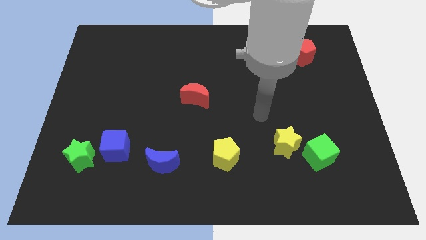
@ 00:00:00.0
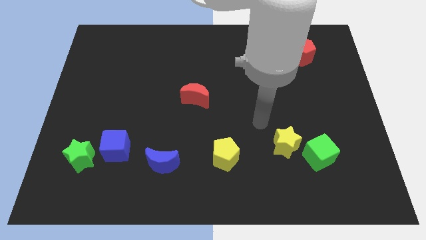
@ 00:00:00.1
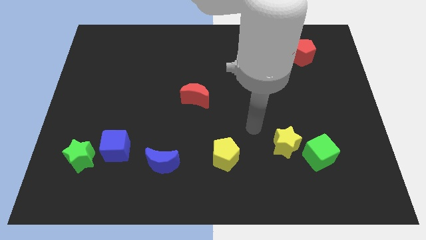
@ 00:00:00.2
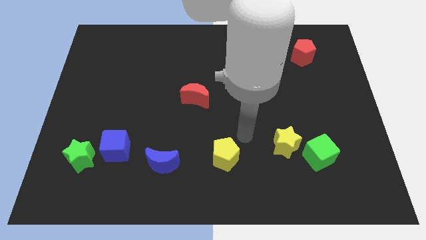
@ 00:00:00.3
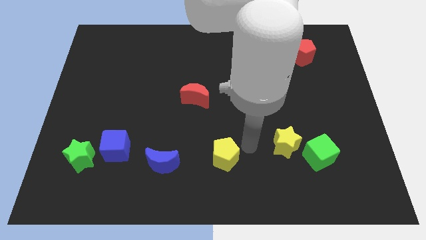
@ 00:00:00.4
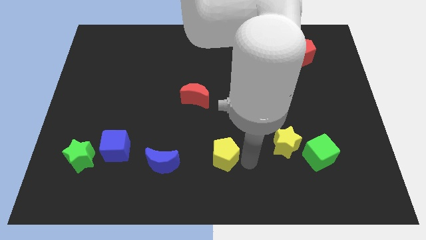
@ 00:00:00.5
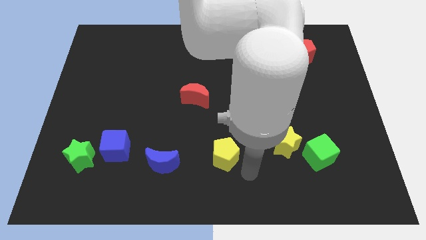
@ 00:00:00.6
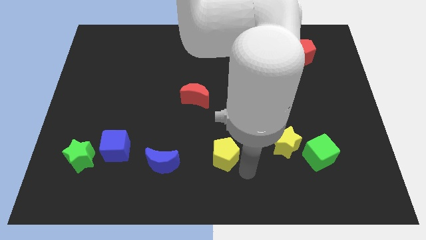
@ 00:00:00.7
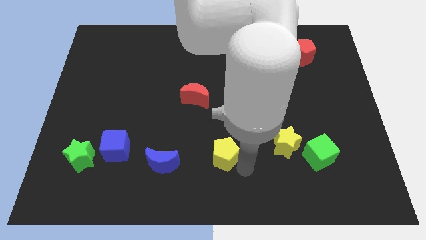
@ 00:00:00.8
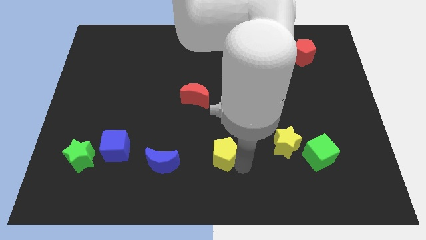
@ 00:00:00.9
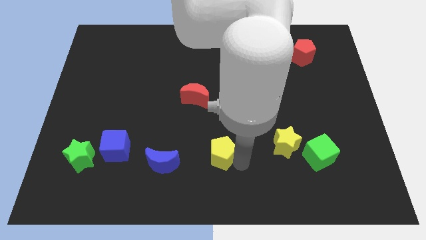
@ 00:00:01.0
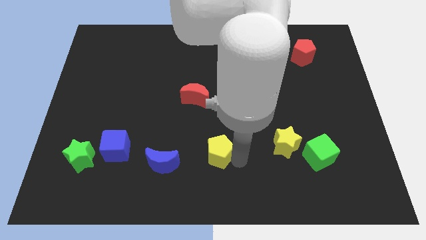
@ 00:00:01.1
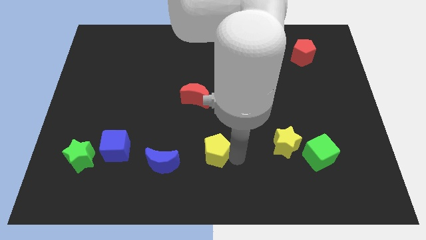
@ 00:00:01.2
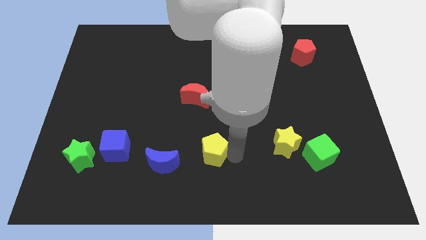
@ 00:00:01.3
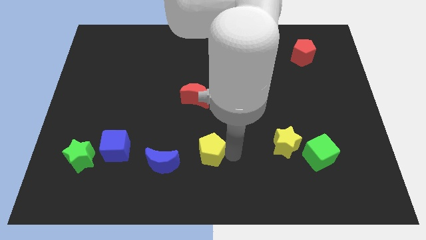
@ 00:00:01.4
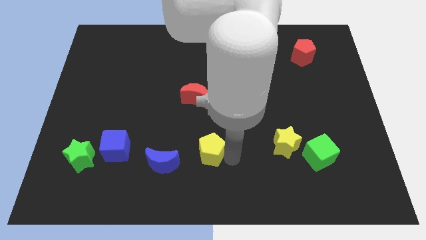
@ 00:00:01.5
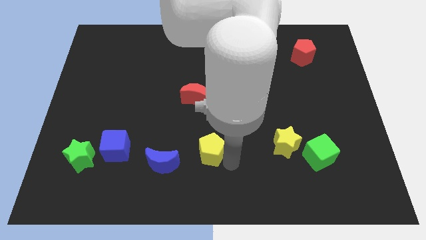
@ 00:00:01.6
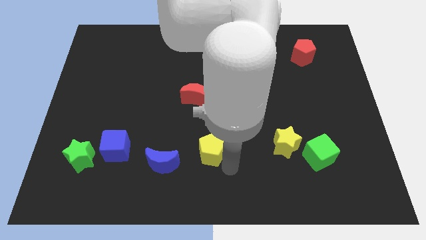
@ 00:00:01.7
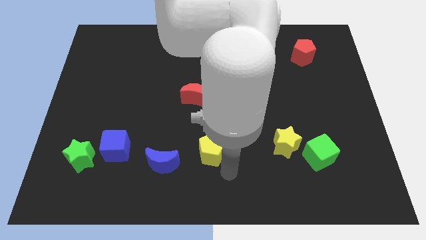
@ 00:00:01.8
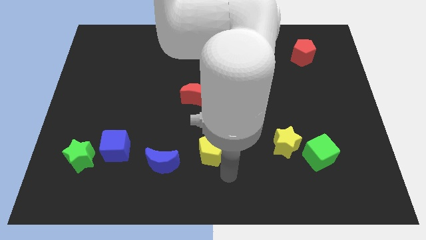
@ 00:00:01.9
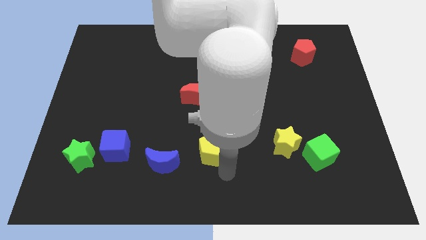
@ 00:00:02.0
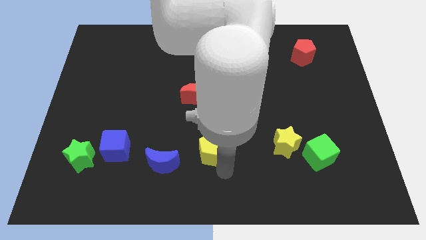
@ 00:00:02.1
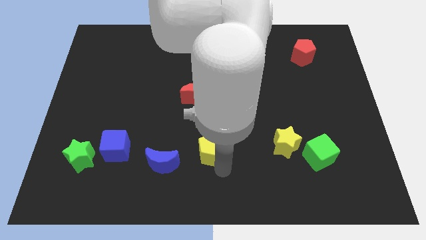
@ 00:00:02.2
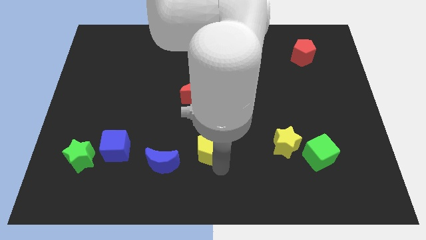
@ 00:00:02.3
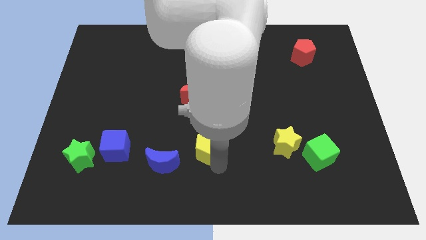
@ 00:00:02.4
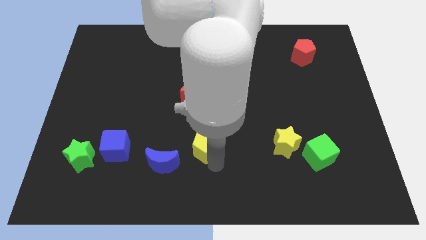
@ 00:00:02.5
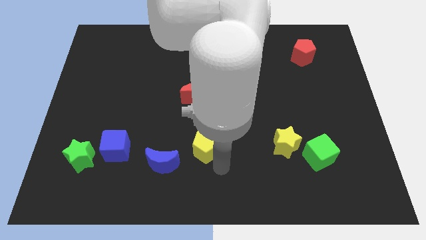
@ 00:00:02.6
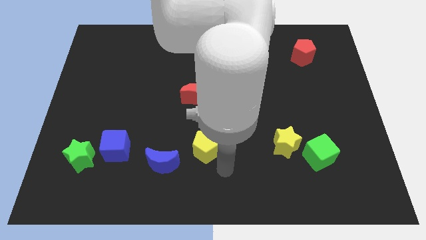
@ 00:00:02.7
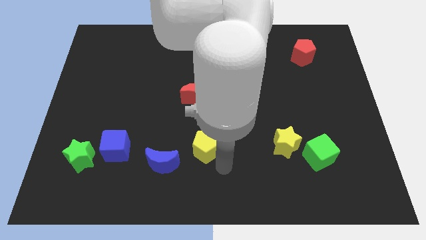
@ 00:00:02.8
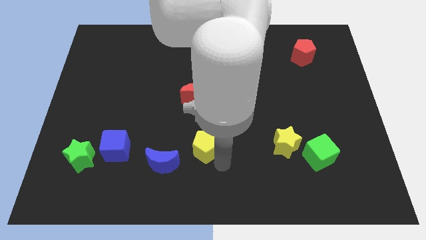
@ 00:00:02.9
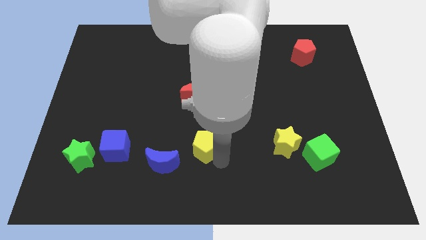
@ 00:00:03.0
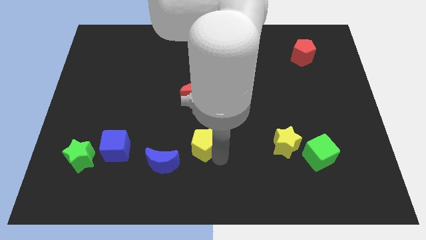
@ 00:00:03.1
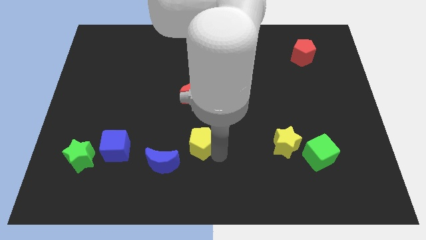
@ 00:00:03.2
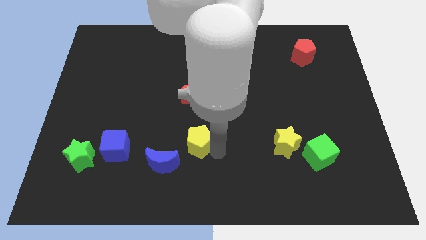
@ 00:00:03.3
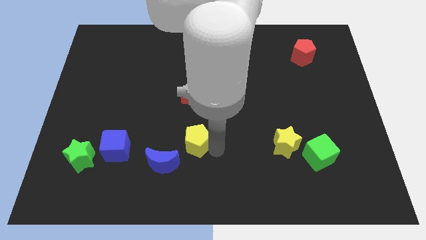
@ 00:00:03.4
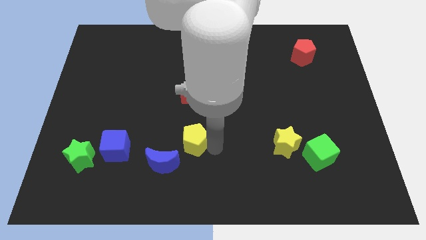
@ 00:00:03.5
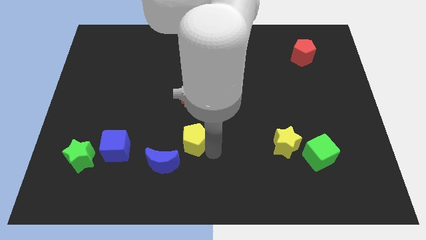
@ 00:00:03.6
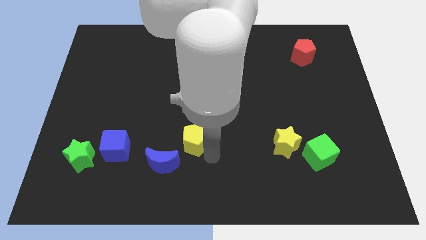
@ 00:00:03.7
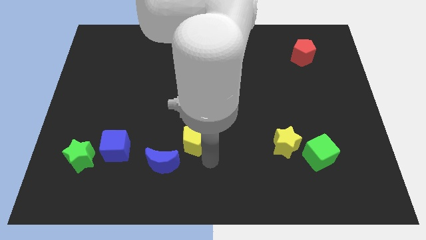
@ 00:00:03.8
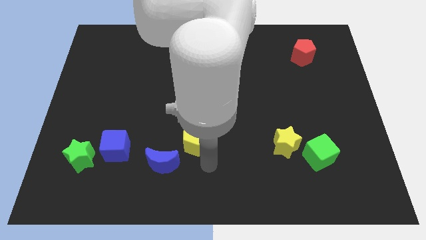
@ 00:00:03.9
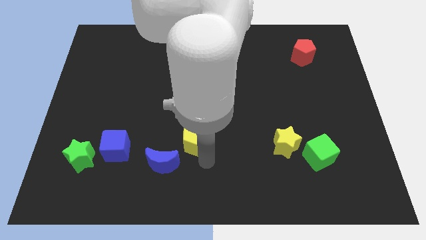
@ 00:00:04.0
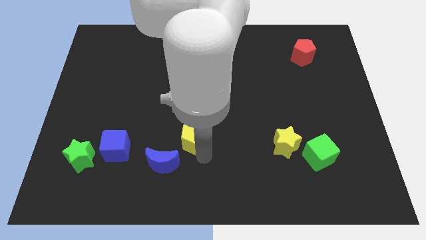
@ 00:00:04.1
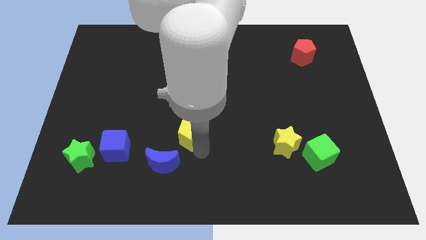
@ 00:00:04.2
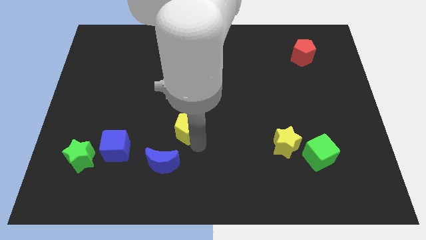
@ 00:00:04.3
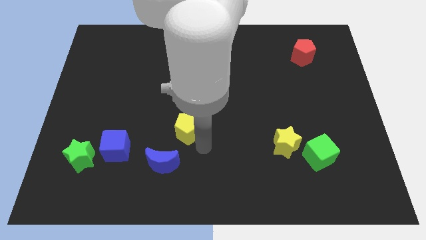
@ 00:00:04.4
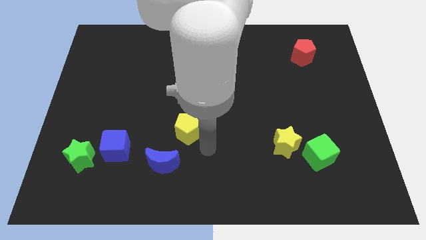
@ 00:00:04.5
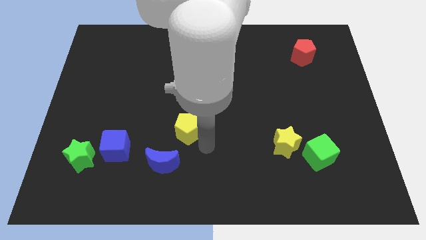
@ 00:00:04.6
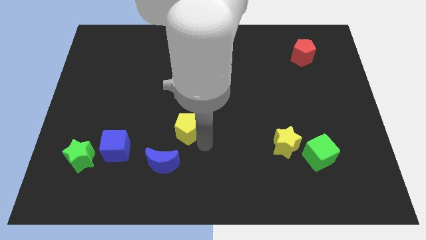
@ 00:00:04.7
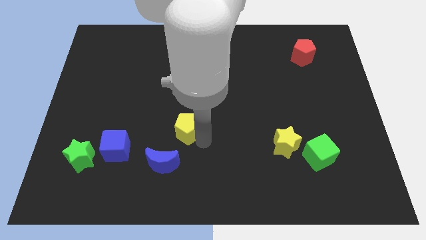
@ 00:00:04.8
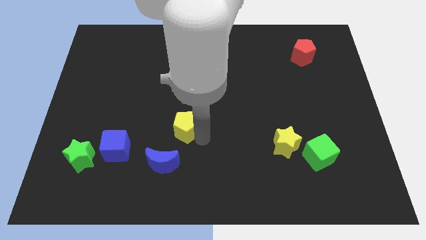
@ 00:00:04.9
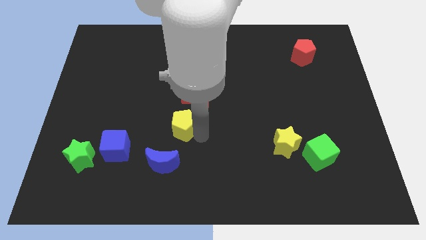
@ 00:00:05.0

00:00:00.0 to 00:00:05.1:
push the yellow pentagon to the bottom left side of the red moon

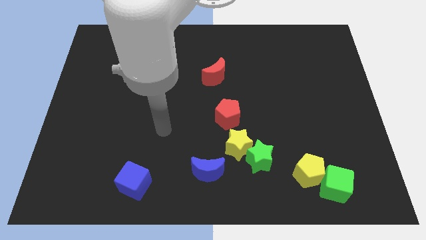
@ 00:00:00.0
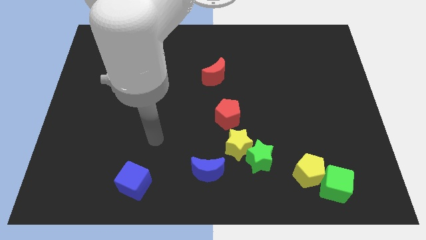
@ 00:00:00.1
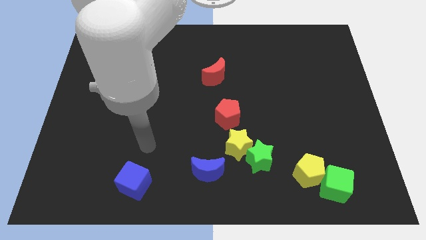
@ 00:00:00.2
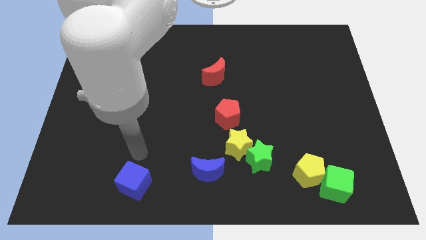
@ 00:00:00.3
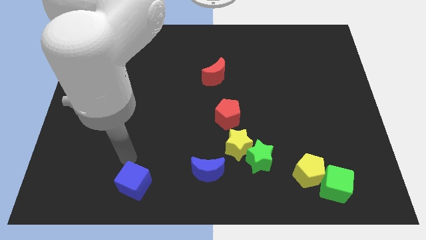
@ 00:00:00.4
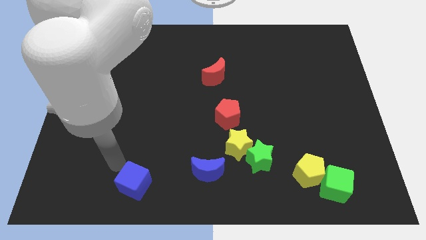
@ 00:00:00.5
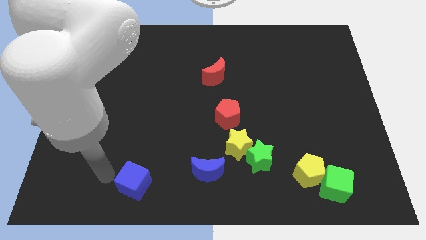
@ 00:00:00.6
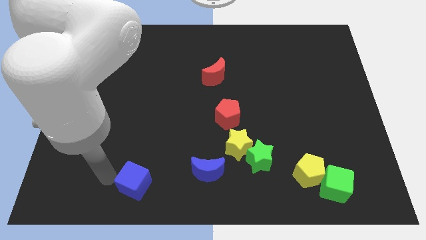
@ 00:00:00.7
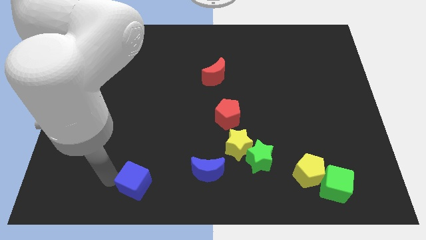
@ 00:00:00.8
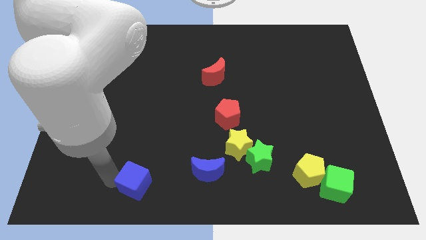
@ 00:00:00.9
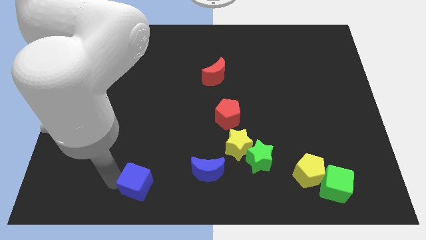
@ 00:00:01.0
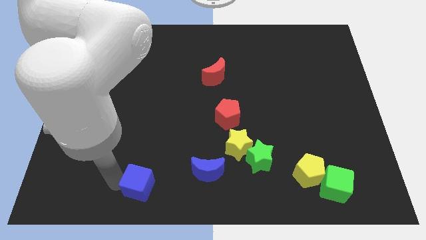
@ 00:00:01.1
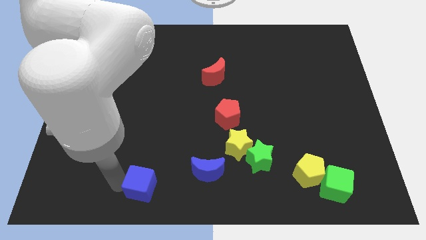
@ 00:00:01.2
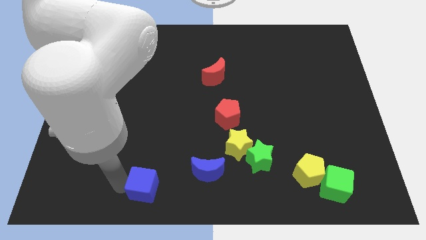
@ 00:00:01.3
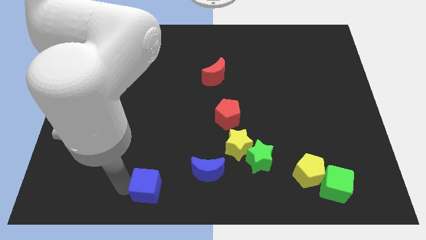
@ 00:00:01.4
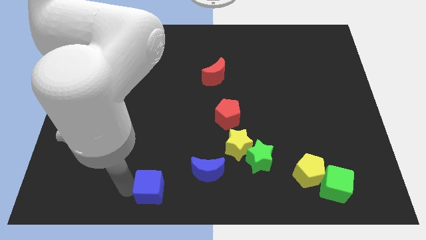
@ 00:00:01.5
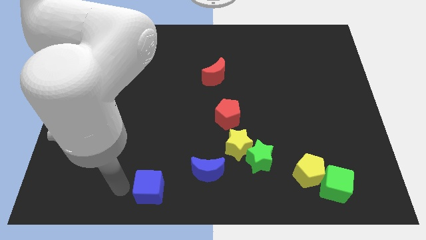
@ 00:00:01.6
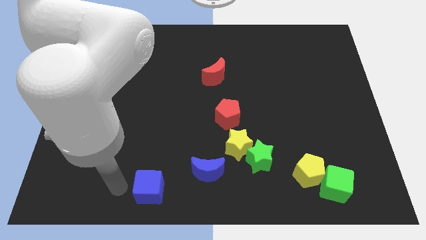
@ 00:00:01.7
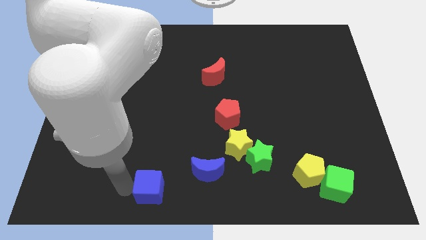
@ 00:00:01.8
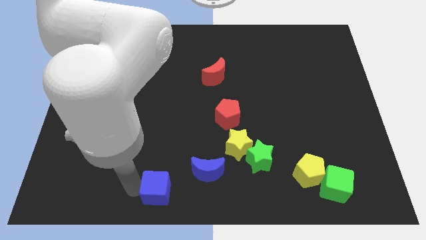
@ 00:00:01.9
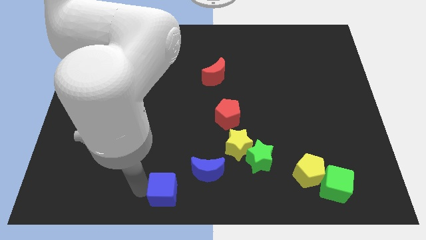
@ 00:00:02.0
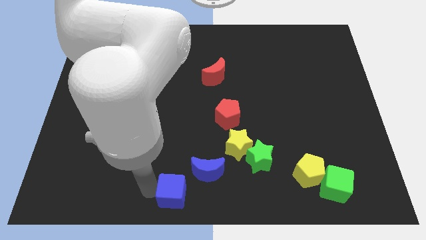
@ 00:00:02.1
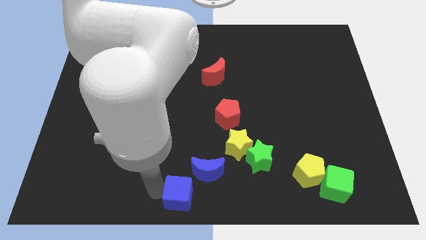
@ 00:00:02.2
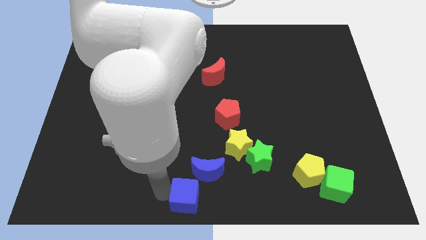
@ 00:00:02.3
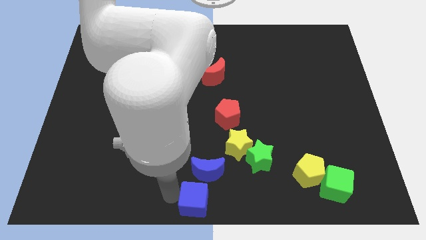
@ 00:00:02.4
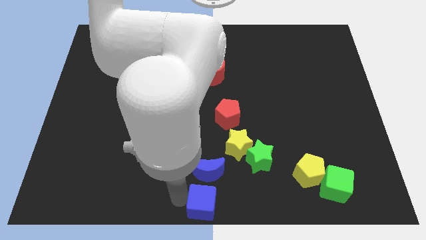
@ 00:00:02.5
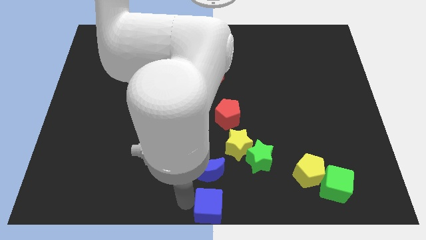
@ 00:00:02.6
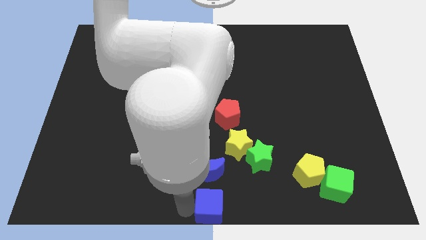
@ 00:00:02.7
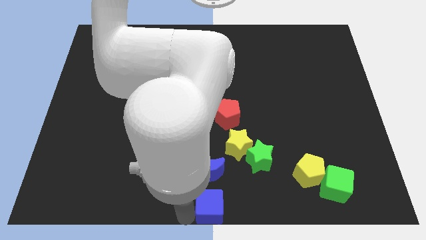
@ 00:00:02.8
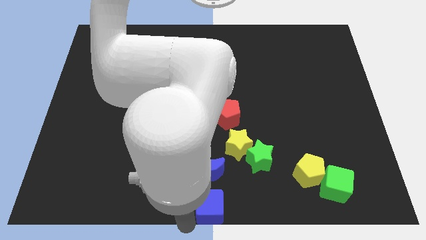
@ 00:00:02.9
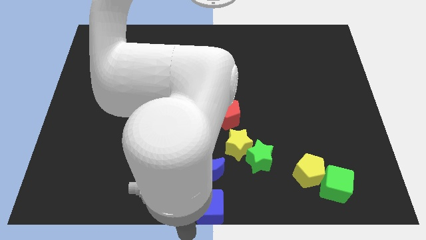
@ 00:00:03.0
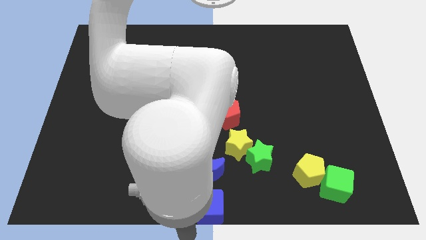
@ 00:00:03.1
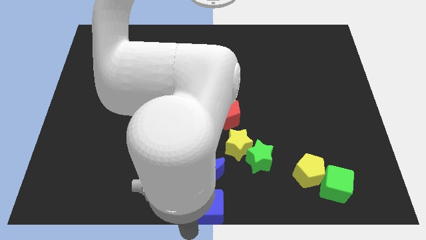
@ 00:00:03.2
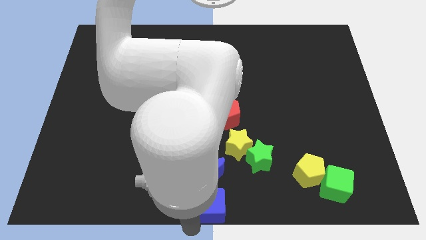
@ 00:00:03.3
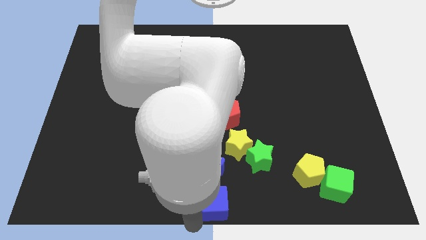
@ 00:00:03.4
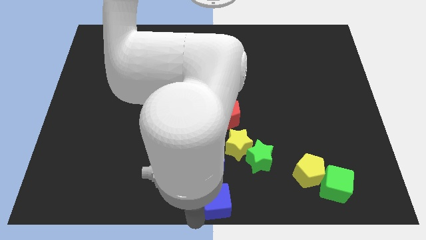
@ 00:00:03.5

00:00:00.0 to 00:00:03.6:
push the blue cube diagonally down and to the left of the green star
